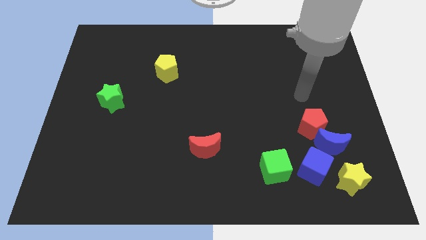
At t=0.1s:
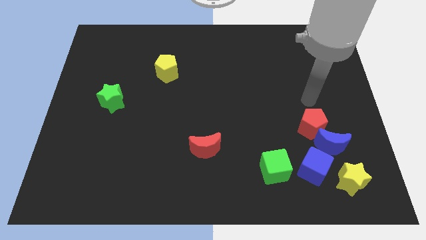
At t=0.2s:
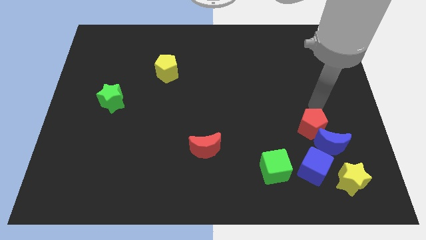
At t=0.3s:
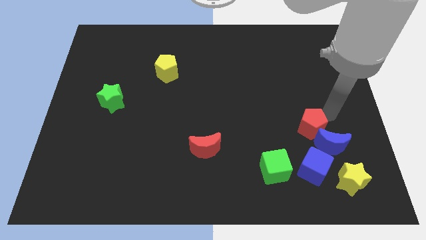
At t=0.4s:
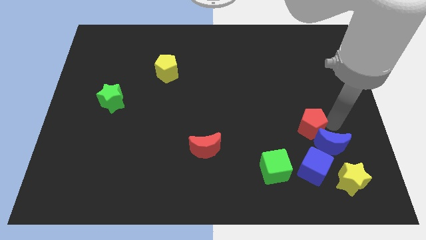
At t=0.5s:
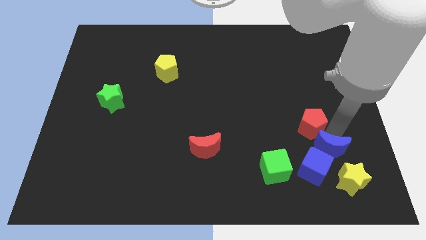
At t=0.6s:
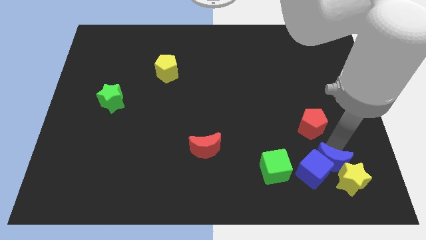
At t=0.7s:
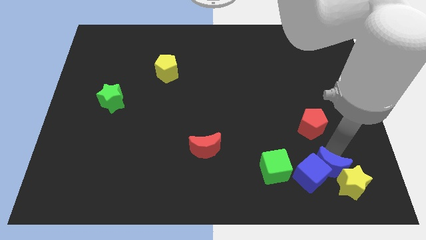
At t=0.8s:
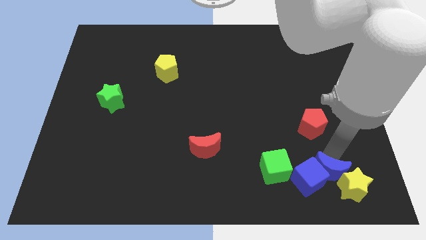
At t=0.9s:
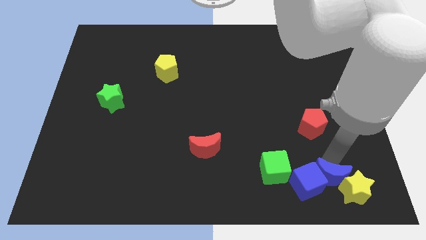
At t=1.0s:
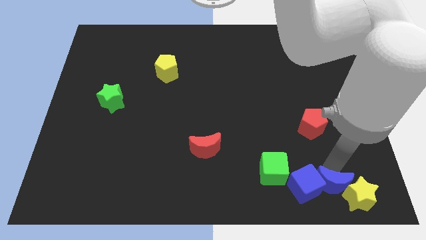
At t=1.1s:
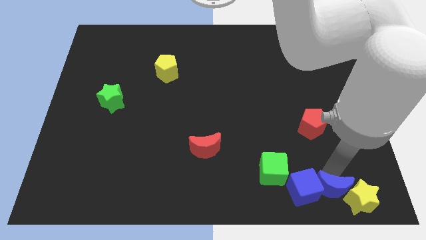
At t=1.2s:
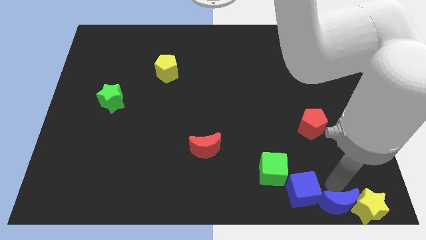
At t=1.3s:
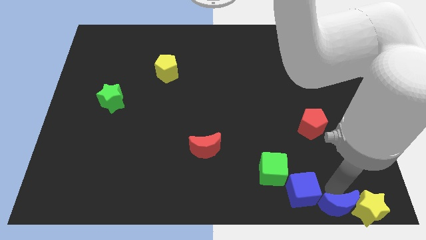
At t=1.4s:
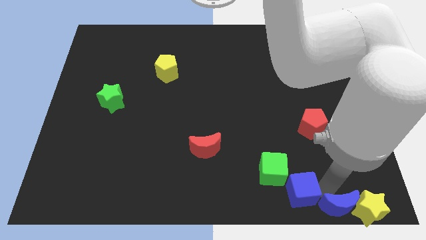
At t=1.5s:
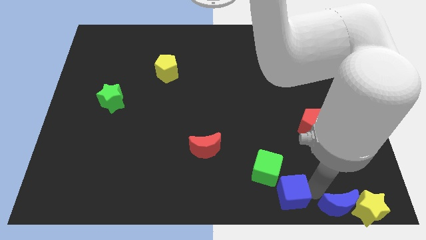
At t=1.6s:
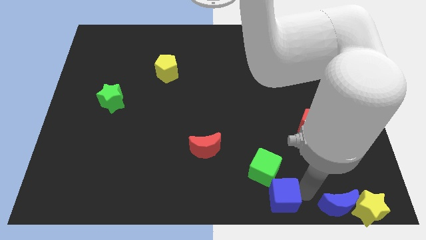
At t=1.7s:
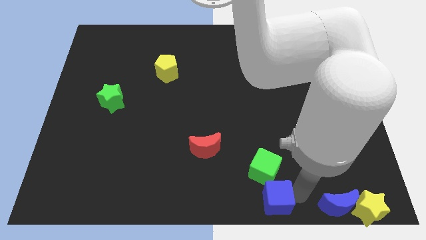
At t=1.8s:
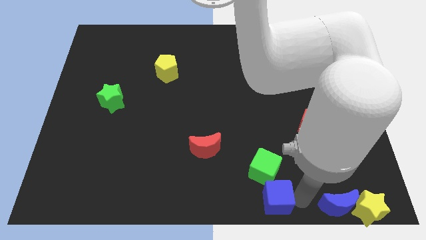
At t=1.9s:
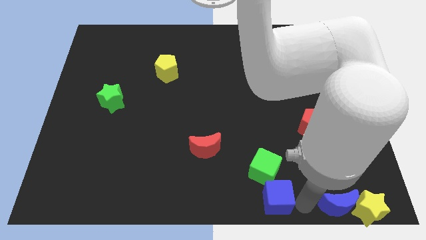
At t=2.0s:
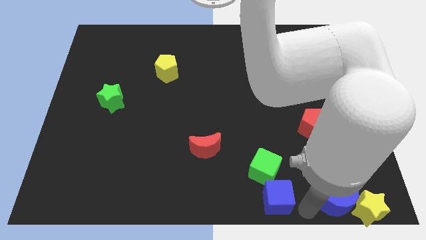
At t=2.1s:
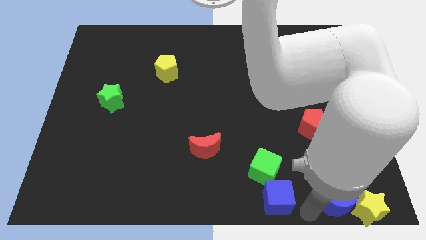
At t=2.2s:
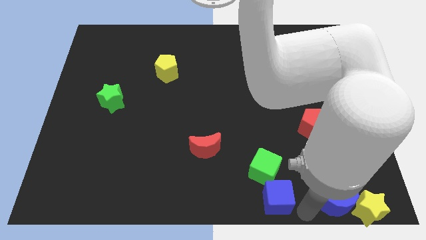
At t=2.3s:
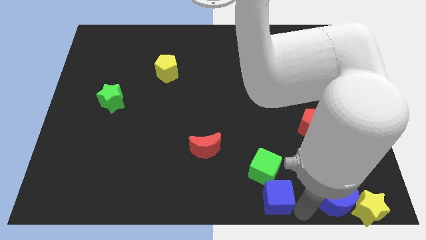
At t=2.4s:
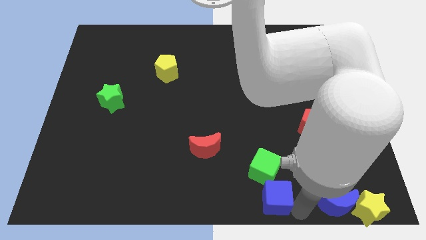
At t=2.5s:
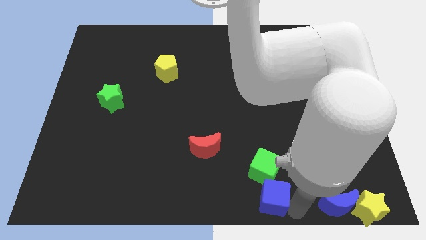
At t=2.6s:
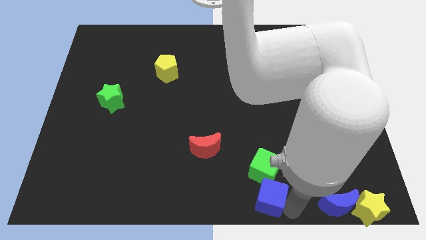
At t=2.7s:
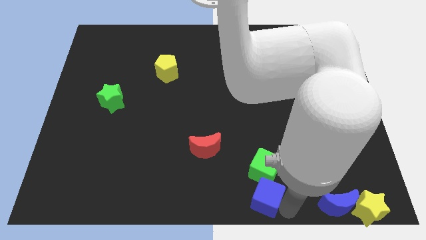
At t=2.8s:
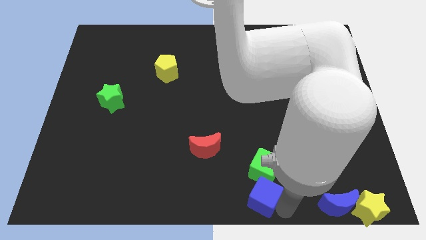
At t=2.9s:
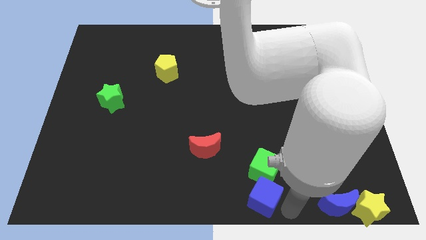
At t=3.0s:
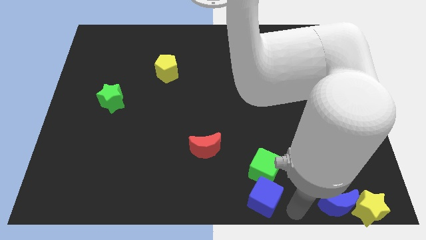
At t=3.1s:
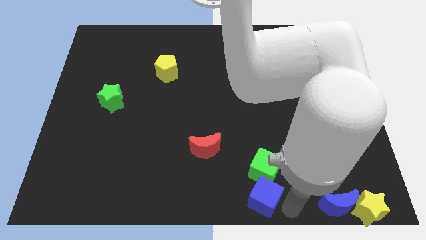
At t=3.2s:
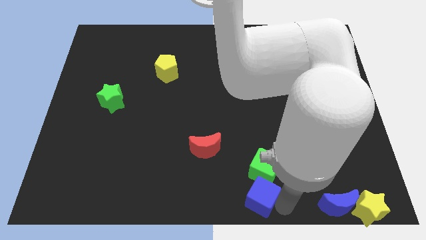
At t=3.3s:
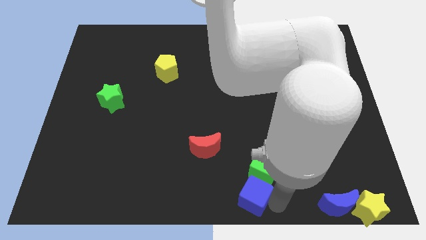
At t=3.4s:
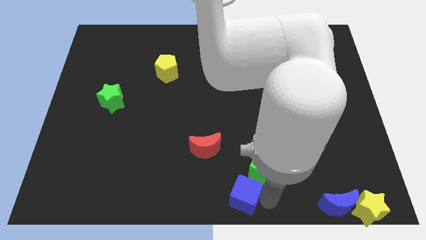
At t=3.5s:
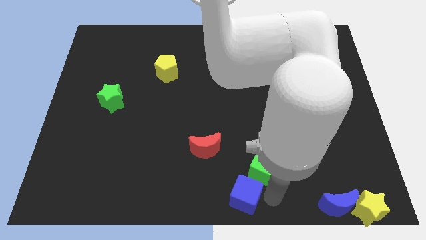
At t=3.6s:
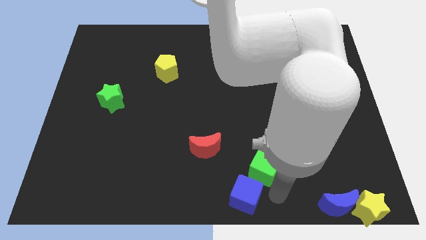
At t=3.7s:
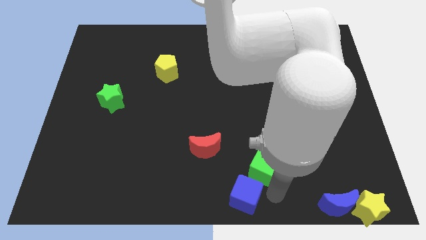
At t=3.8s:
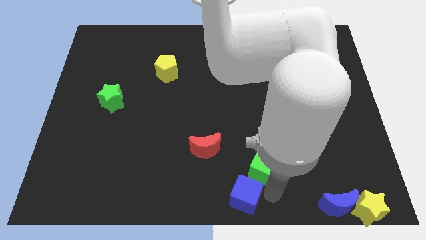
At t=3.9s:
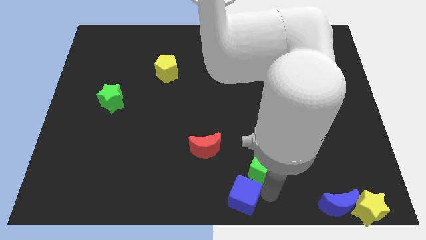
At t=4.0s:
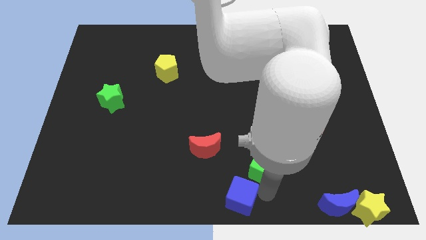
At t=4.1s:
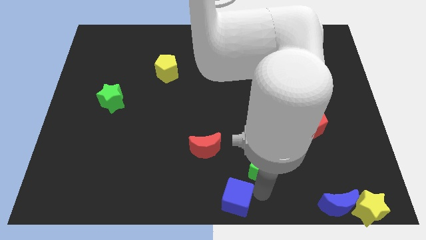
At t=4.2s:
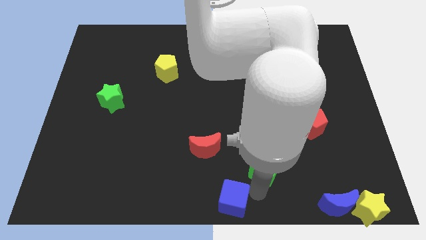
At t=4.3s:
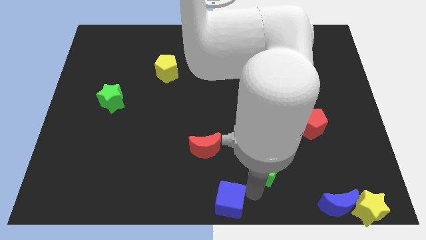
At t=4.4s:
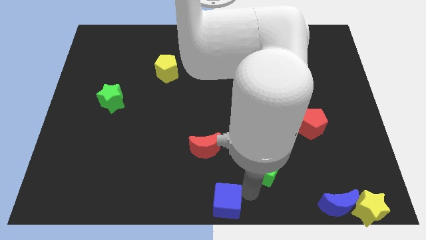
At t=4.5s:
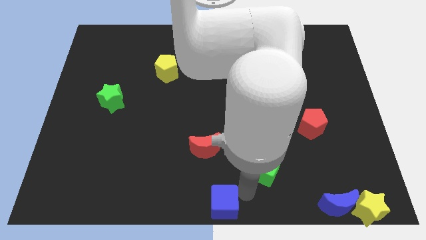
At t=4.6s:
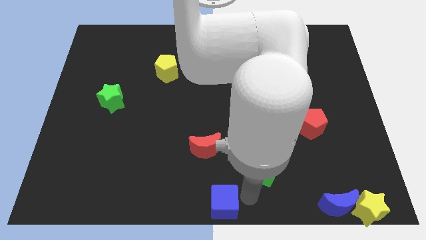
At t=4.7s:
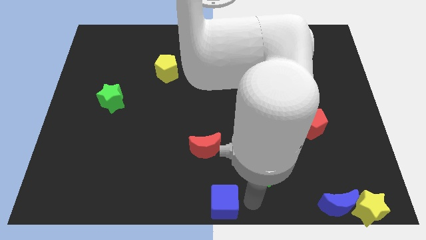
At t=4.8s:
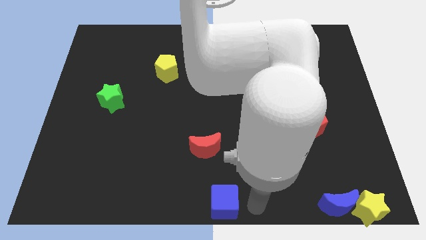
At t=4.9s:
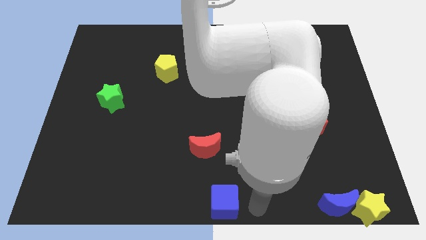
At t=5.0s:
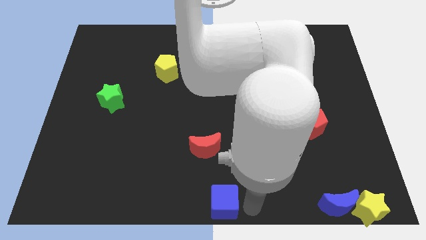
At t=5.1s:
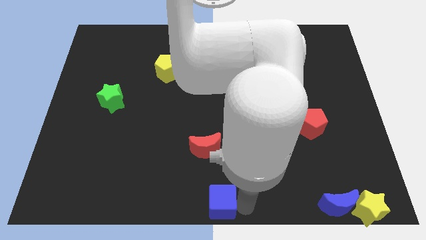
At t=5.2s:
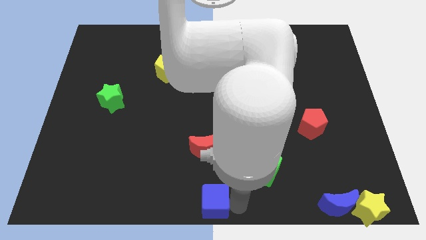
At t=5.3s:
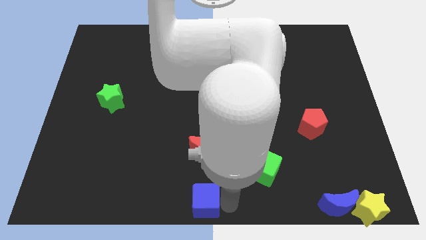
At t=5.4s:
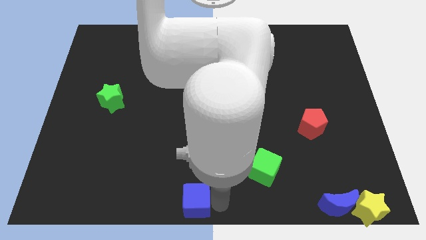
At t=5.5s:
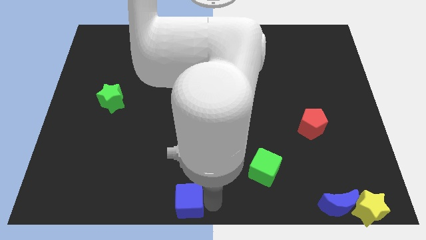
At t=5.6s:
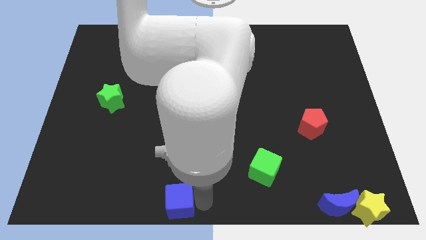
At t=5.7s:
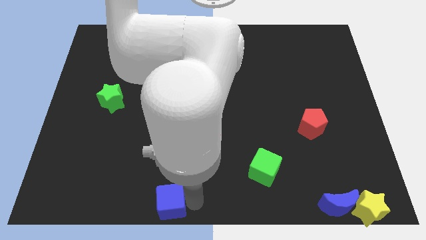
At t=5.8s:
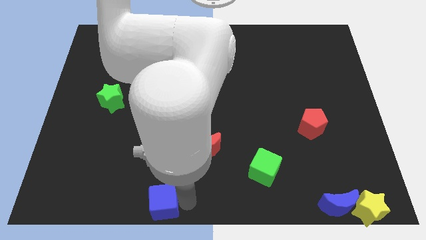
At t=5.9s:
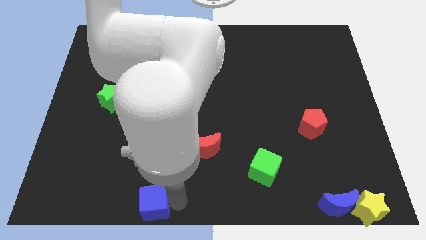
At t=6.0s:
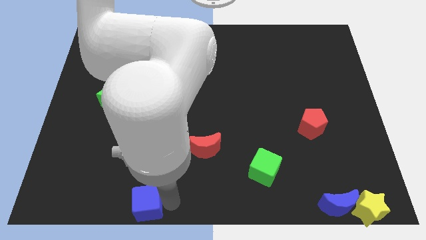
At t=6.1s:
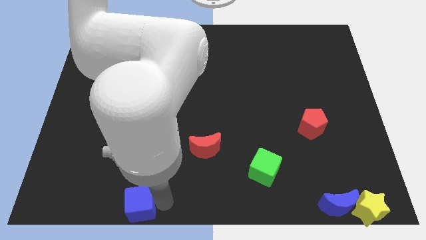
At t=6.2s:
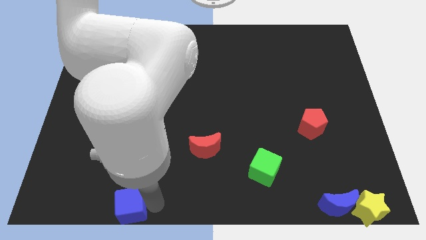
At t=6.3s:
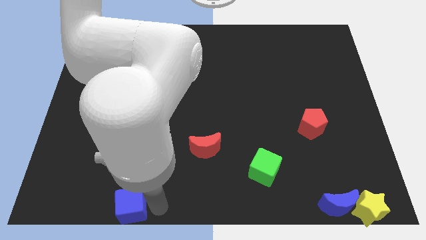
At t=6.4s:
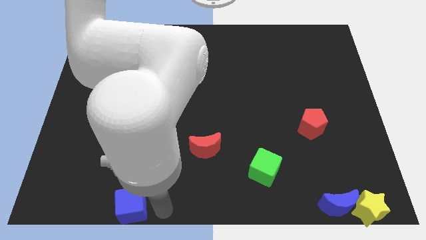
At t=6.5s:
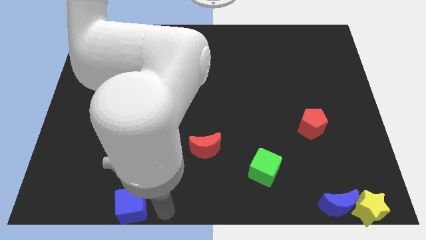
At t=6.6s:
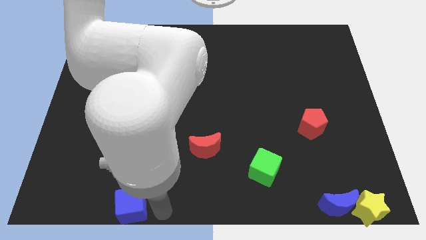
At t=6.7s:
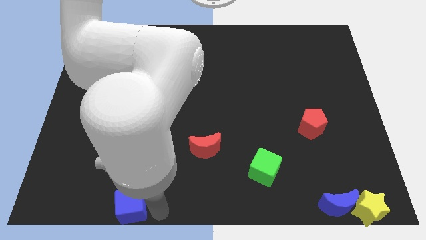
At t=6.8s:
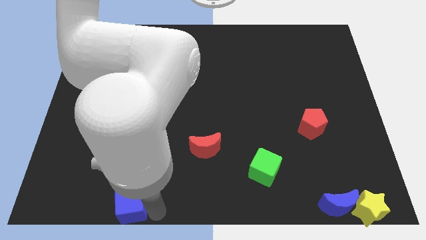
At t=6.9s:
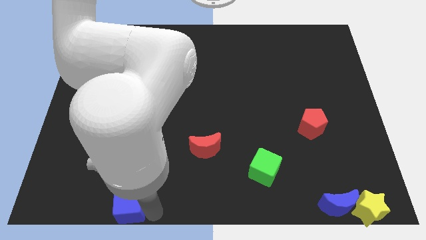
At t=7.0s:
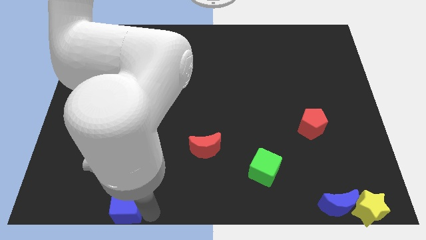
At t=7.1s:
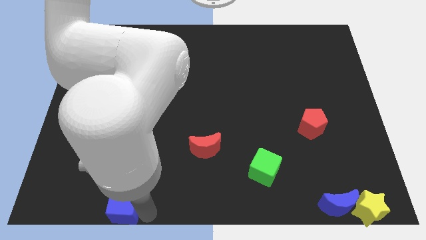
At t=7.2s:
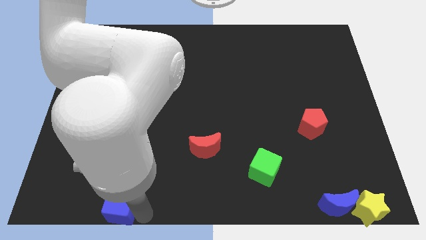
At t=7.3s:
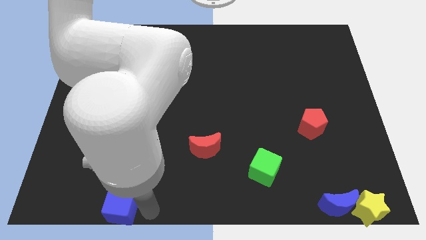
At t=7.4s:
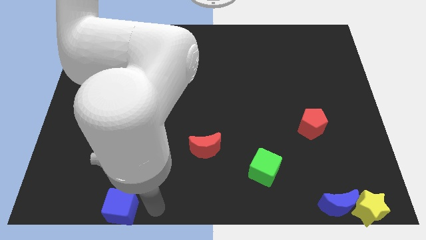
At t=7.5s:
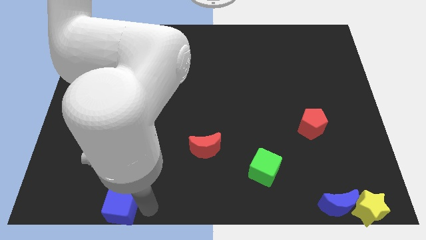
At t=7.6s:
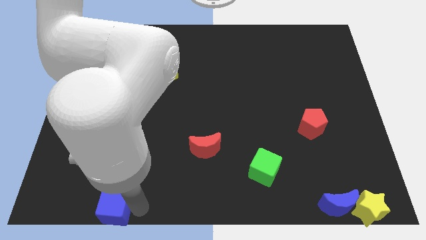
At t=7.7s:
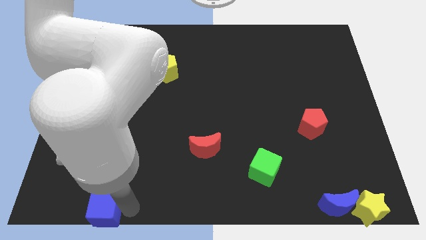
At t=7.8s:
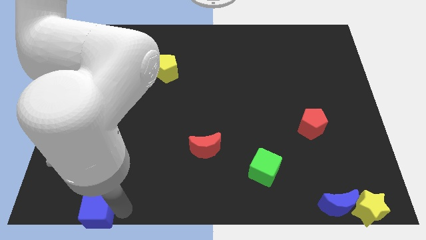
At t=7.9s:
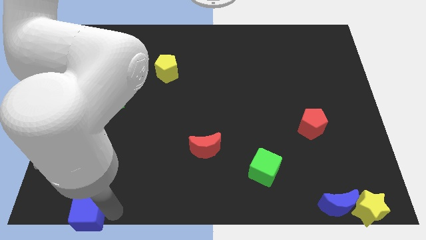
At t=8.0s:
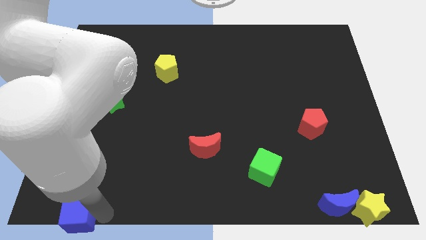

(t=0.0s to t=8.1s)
move the blue cube to the bottom left
